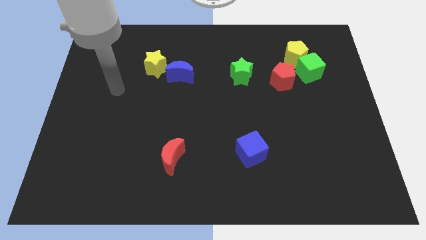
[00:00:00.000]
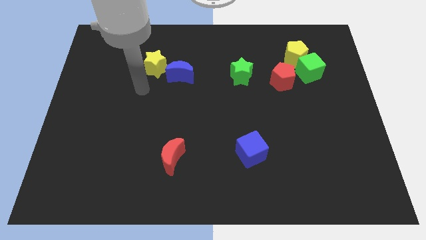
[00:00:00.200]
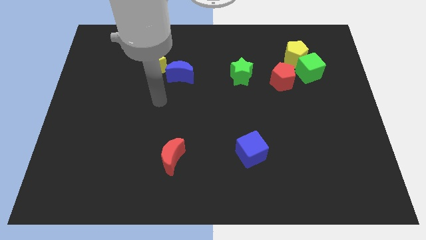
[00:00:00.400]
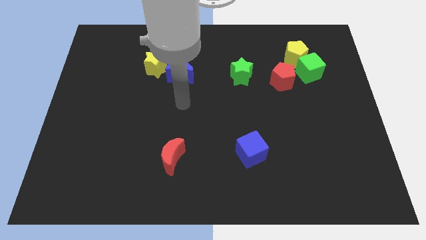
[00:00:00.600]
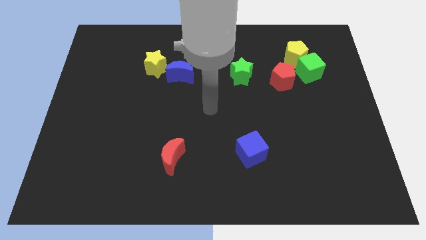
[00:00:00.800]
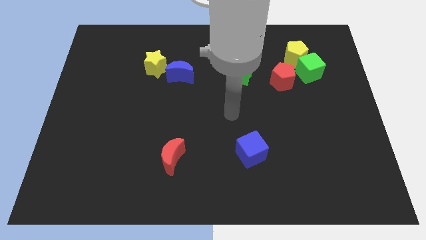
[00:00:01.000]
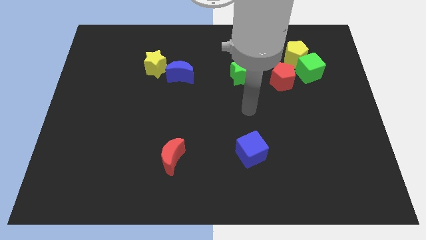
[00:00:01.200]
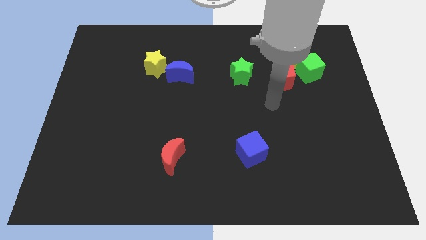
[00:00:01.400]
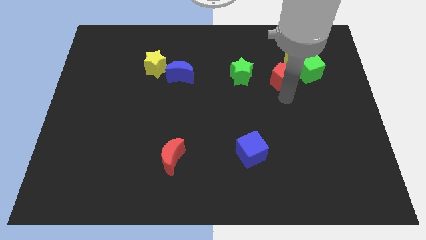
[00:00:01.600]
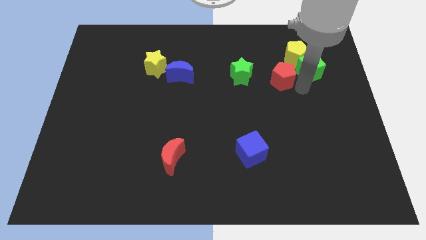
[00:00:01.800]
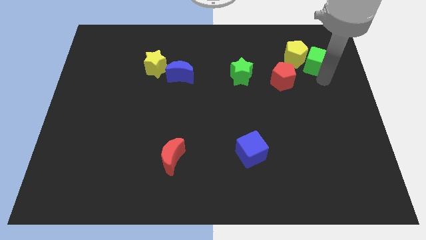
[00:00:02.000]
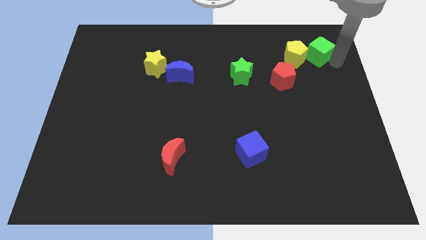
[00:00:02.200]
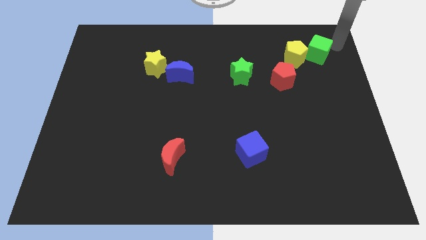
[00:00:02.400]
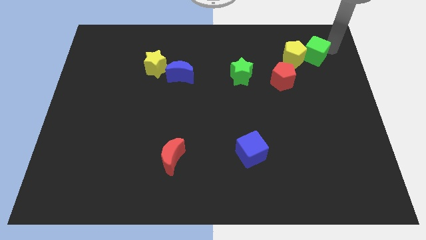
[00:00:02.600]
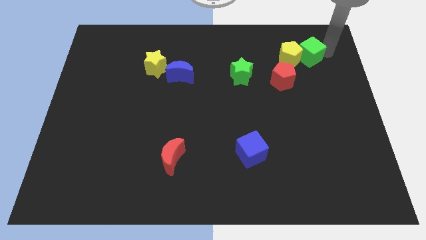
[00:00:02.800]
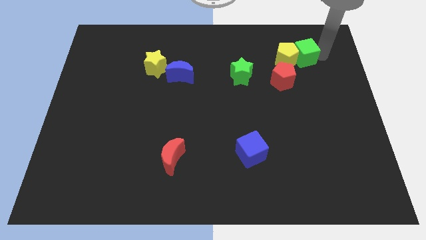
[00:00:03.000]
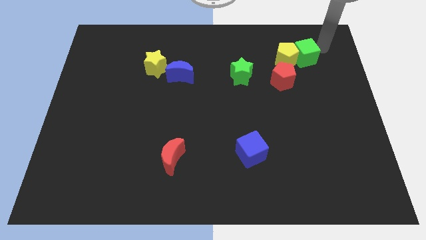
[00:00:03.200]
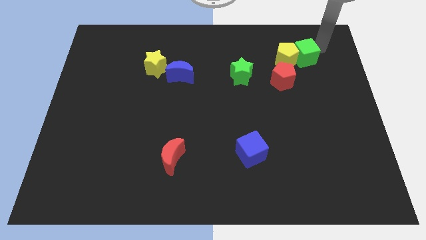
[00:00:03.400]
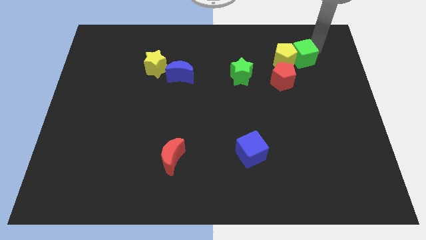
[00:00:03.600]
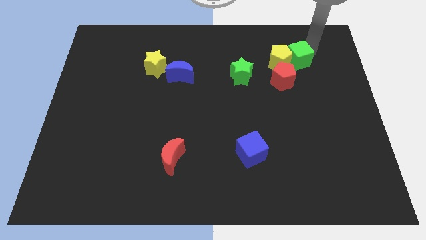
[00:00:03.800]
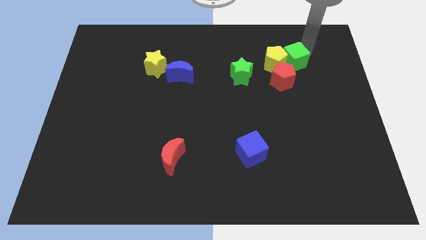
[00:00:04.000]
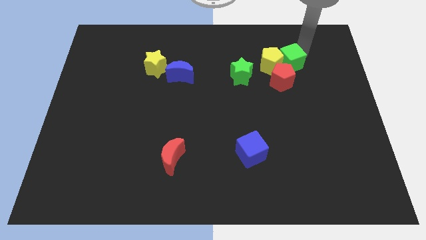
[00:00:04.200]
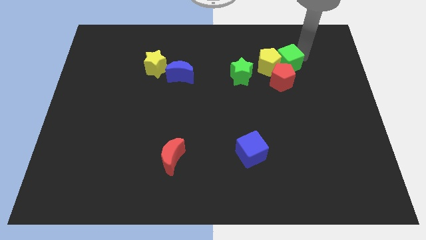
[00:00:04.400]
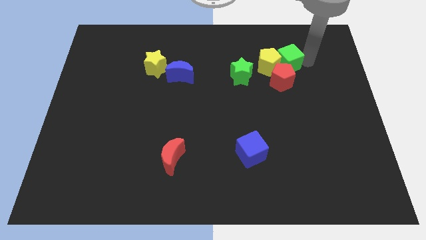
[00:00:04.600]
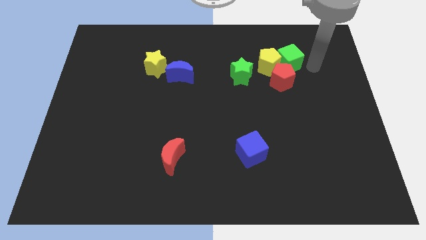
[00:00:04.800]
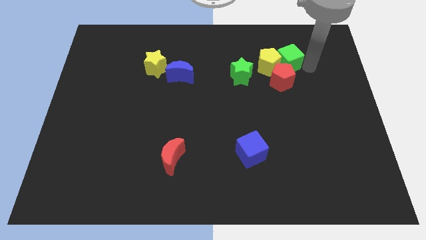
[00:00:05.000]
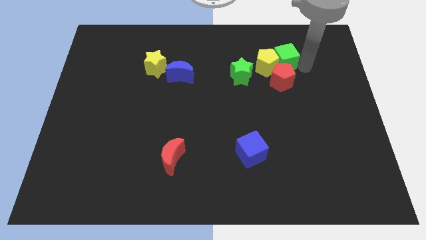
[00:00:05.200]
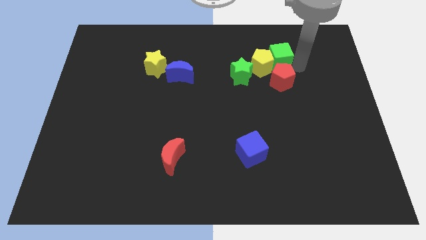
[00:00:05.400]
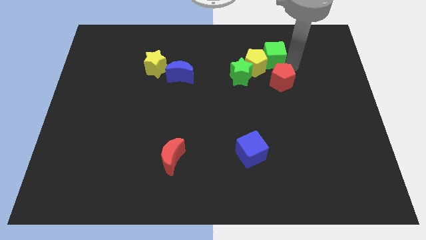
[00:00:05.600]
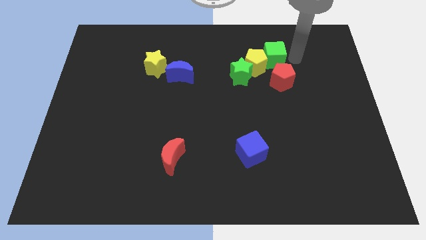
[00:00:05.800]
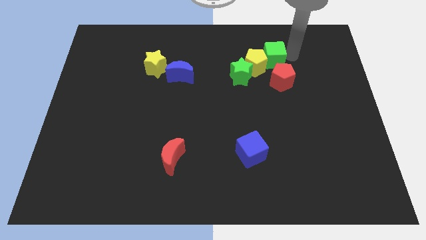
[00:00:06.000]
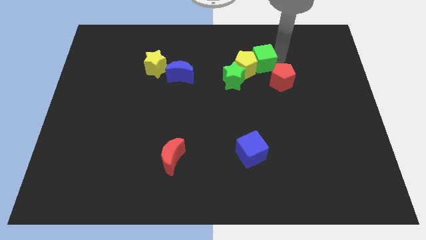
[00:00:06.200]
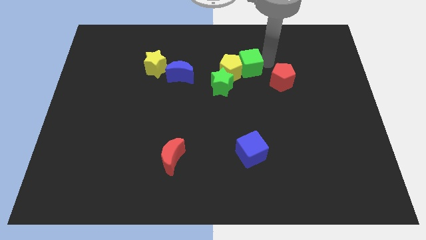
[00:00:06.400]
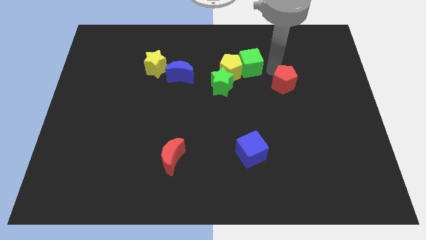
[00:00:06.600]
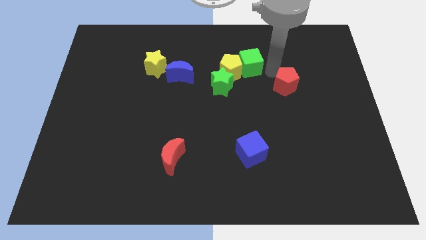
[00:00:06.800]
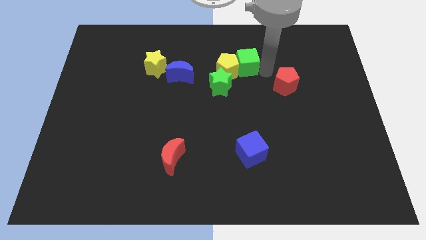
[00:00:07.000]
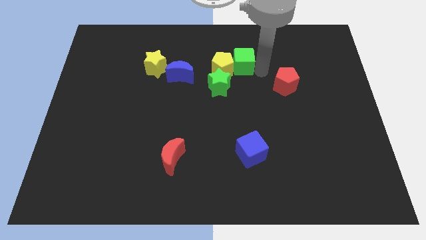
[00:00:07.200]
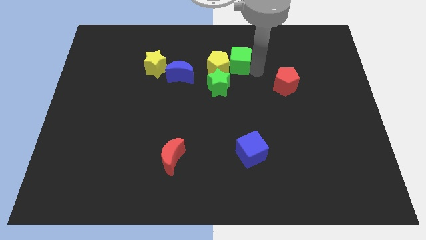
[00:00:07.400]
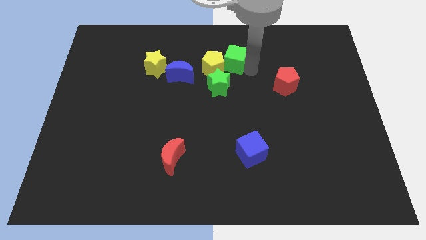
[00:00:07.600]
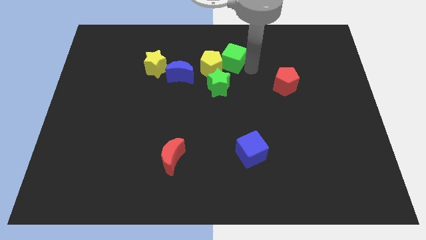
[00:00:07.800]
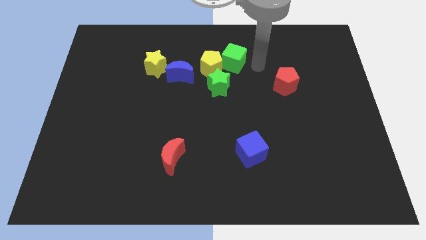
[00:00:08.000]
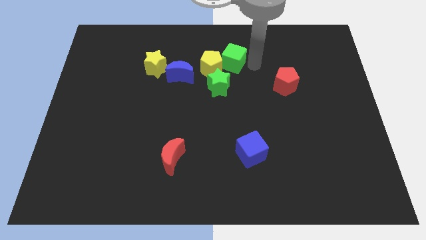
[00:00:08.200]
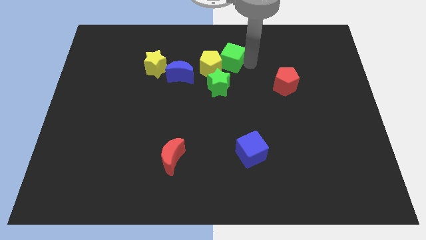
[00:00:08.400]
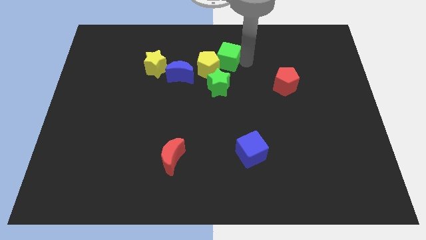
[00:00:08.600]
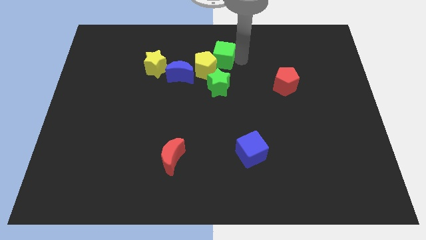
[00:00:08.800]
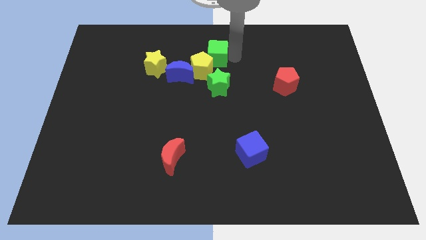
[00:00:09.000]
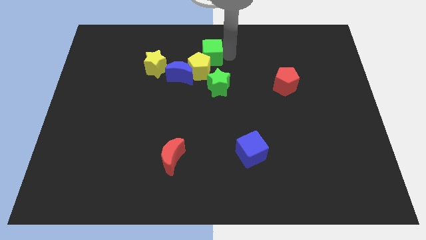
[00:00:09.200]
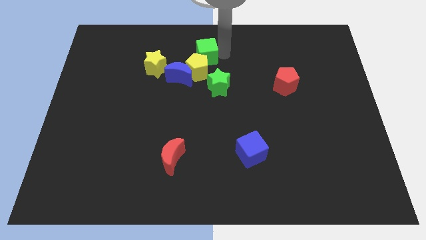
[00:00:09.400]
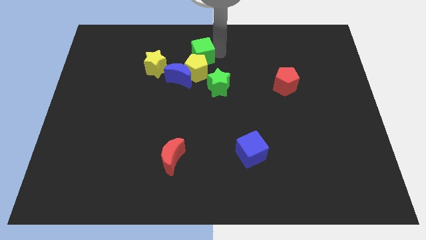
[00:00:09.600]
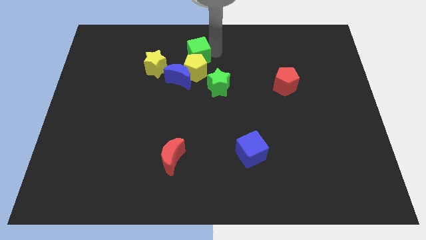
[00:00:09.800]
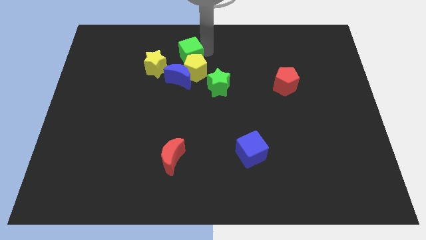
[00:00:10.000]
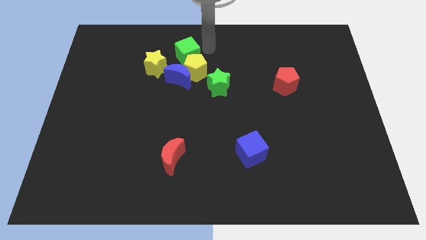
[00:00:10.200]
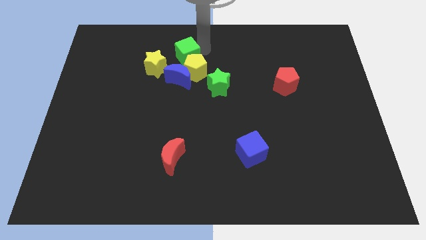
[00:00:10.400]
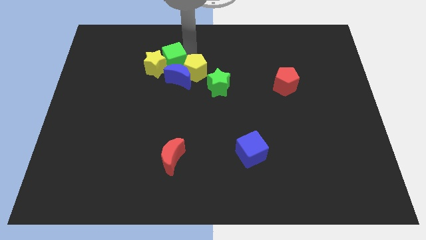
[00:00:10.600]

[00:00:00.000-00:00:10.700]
put the green cube towards the yellow star

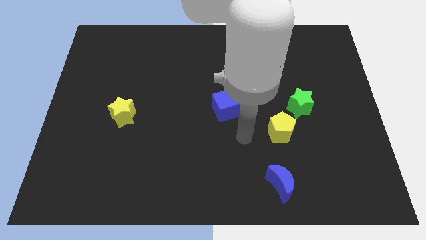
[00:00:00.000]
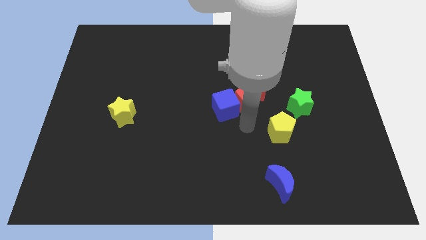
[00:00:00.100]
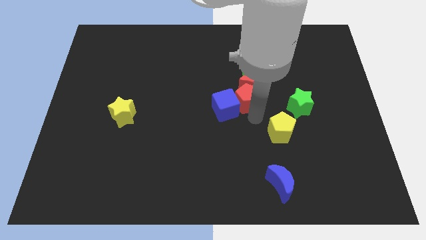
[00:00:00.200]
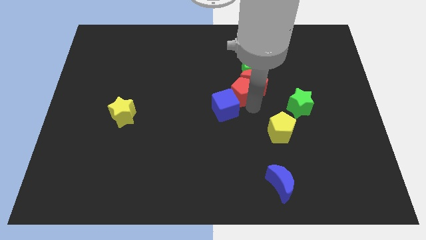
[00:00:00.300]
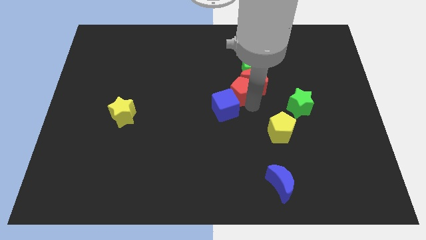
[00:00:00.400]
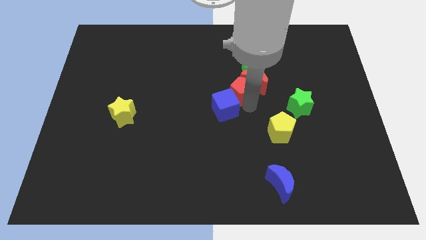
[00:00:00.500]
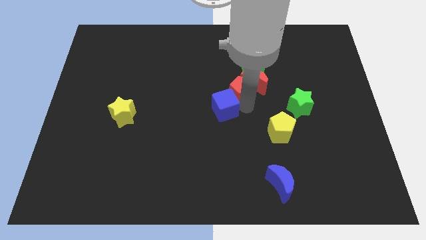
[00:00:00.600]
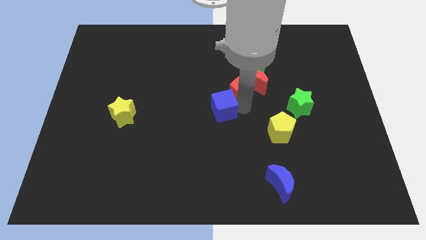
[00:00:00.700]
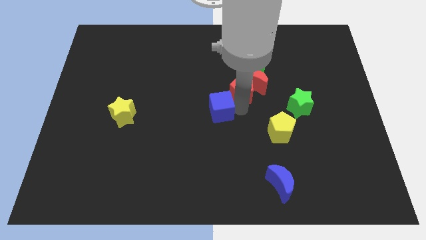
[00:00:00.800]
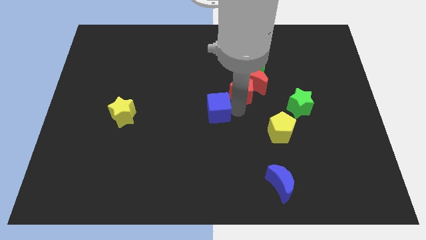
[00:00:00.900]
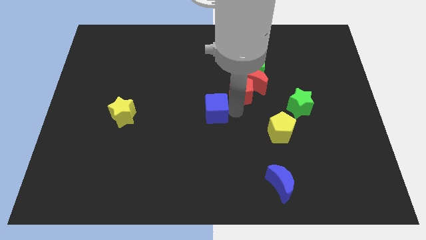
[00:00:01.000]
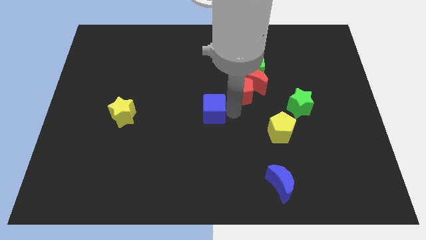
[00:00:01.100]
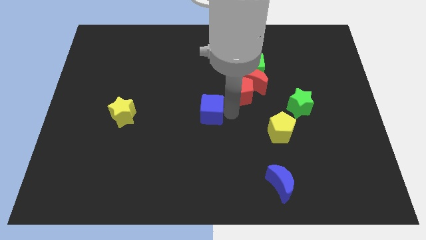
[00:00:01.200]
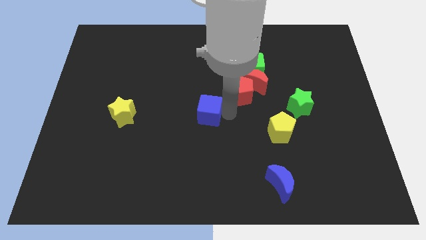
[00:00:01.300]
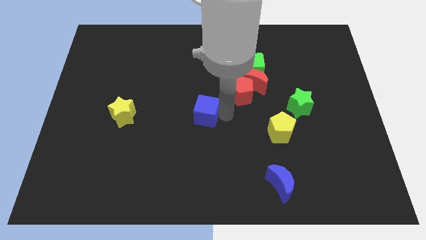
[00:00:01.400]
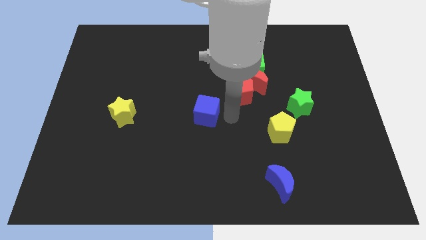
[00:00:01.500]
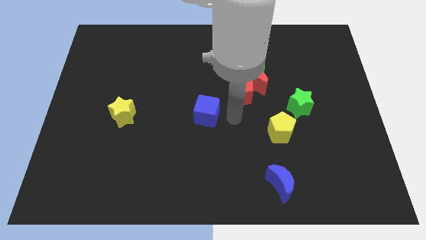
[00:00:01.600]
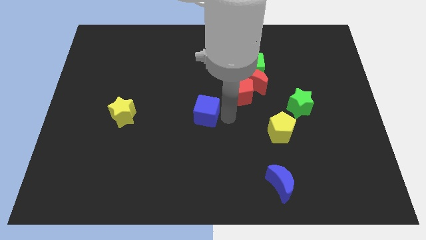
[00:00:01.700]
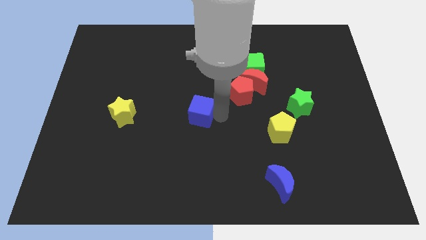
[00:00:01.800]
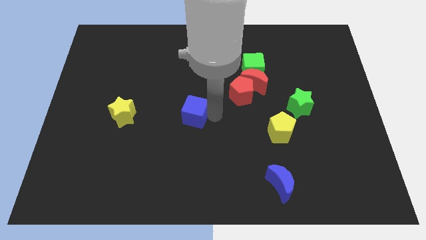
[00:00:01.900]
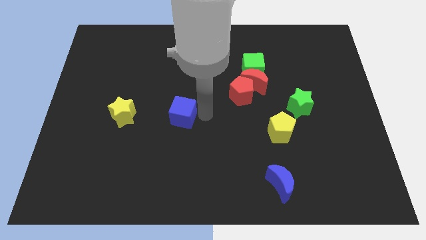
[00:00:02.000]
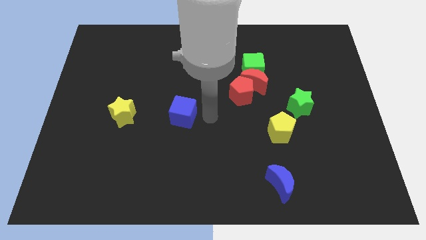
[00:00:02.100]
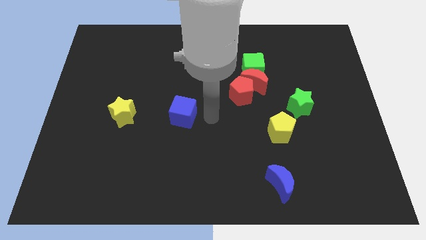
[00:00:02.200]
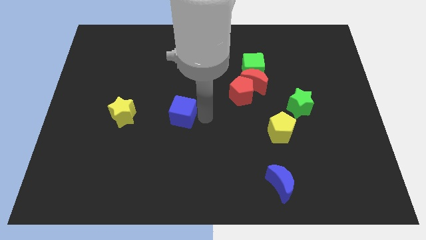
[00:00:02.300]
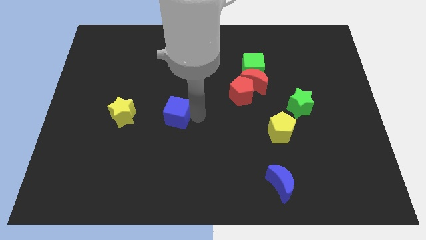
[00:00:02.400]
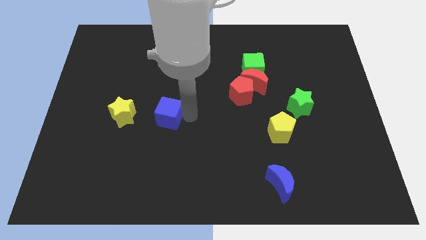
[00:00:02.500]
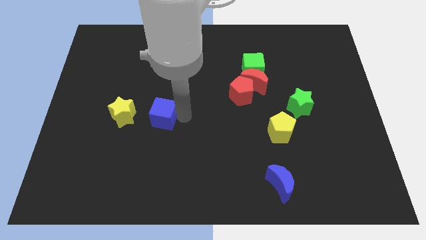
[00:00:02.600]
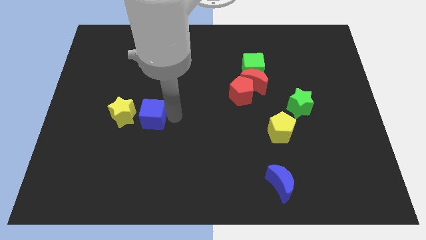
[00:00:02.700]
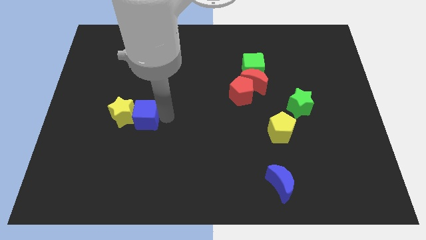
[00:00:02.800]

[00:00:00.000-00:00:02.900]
move the blue cube next to the yellow star
